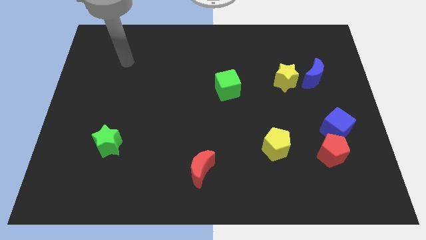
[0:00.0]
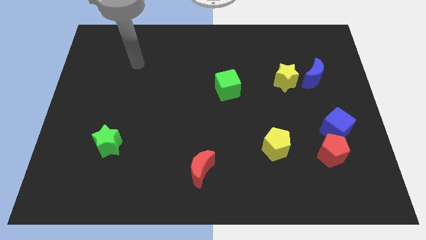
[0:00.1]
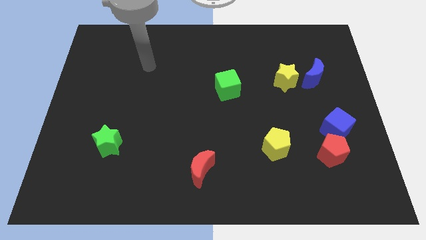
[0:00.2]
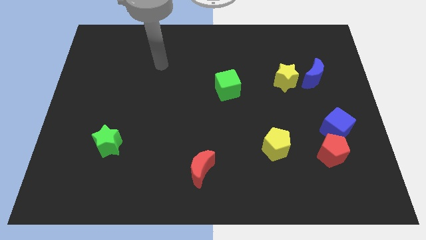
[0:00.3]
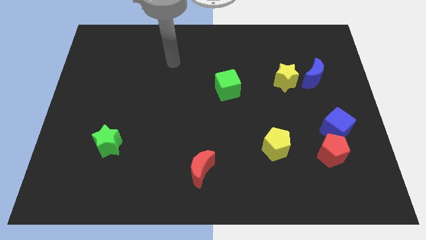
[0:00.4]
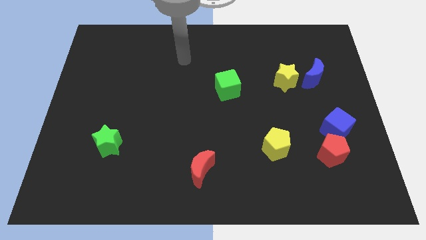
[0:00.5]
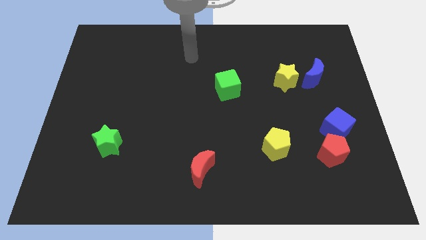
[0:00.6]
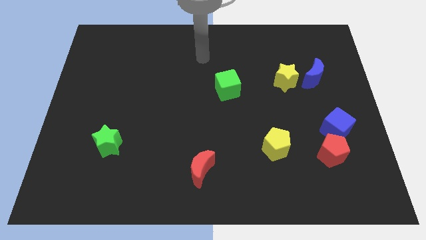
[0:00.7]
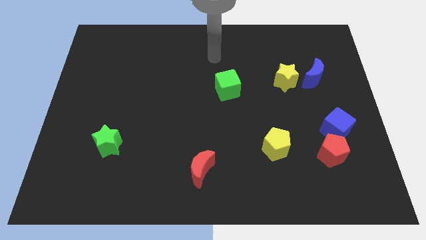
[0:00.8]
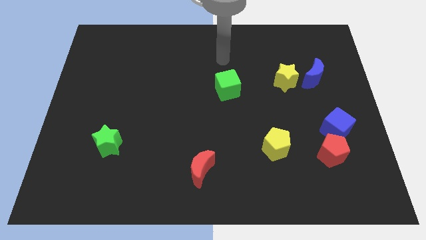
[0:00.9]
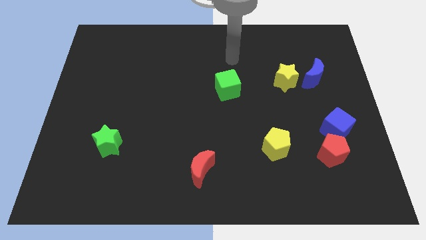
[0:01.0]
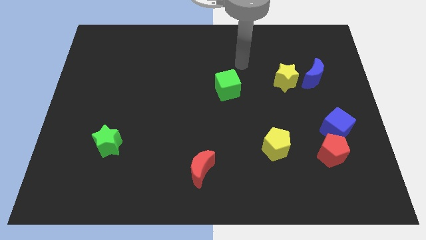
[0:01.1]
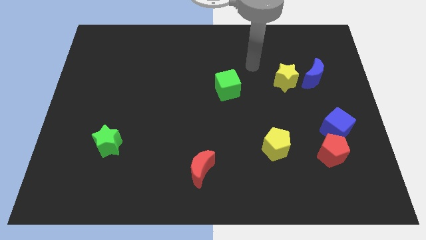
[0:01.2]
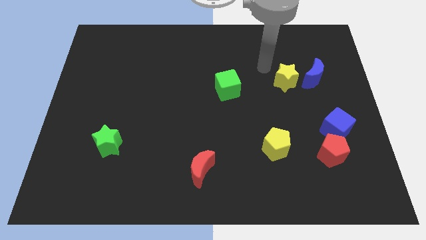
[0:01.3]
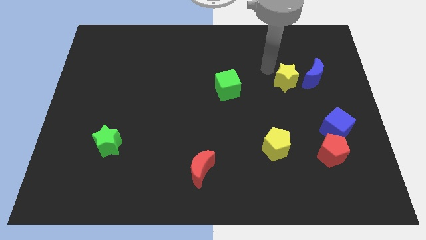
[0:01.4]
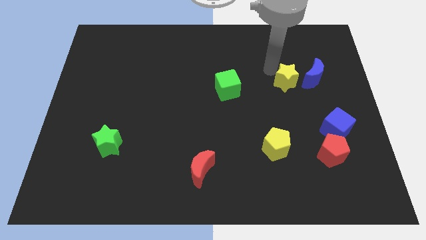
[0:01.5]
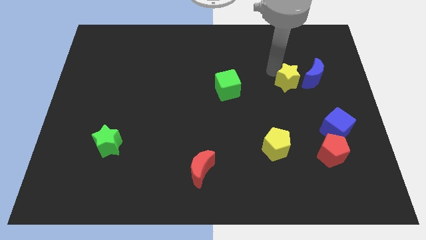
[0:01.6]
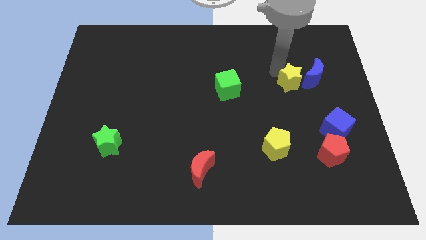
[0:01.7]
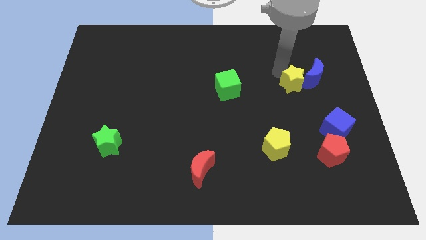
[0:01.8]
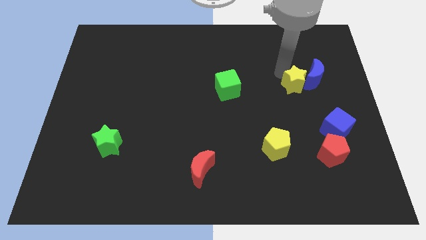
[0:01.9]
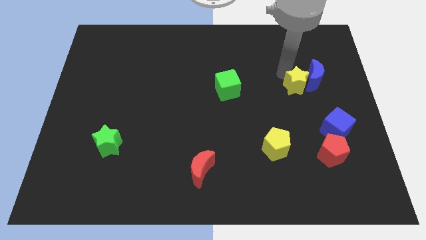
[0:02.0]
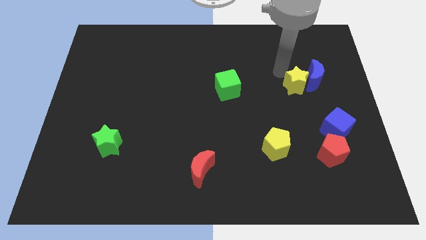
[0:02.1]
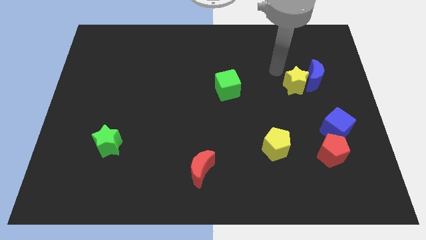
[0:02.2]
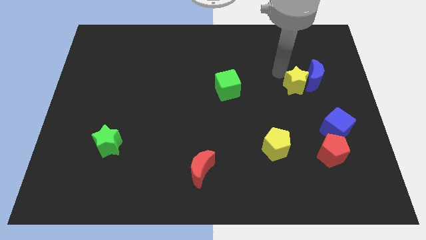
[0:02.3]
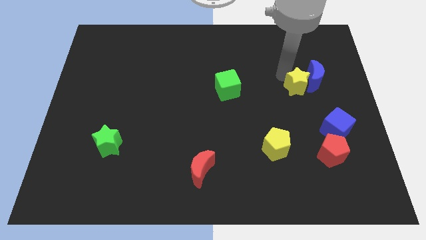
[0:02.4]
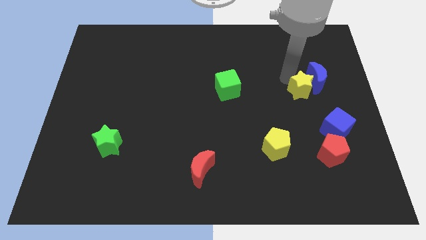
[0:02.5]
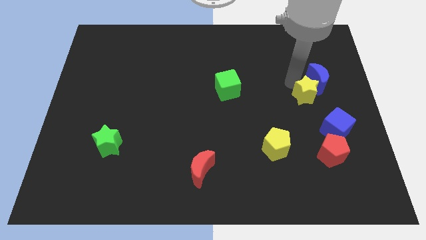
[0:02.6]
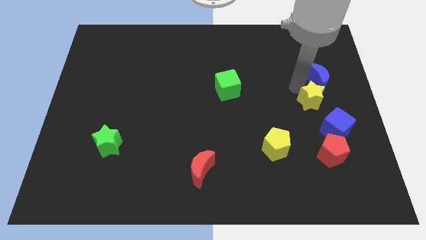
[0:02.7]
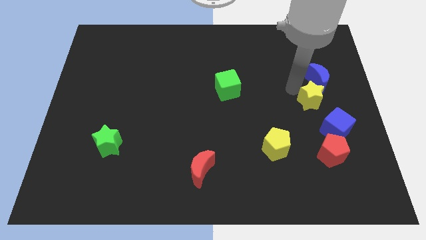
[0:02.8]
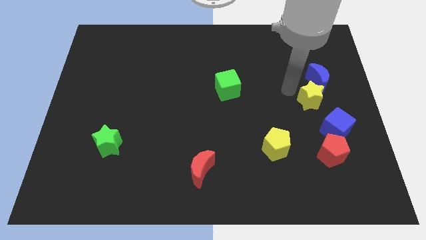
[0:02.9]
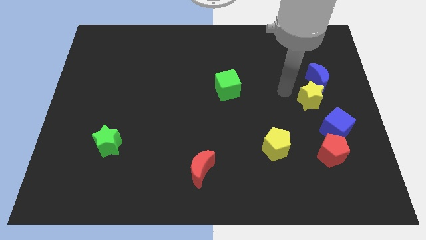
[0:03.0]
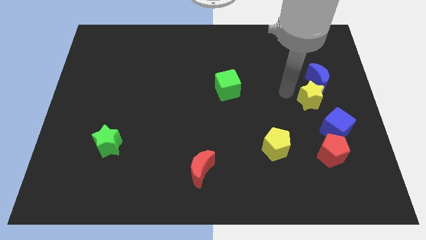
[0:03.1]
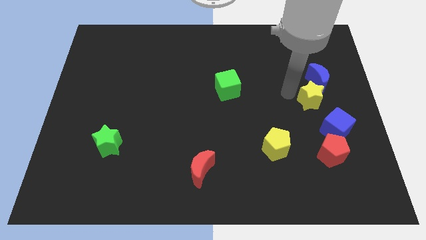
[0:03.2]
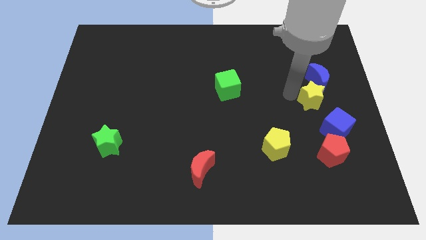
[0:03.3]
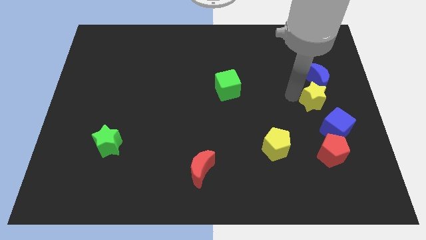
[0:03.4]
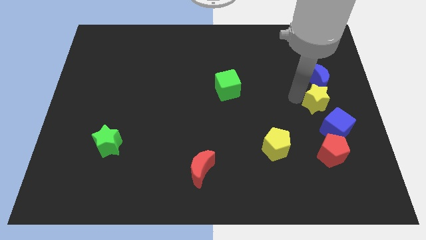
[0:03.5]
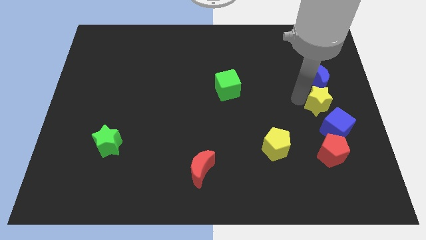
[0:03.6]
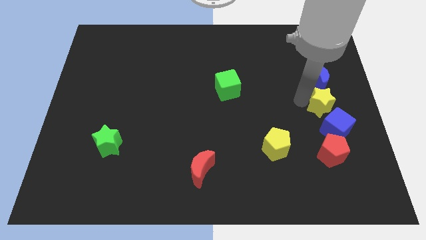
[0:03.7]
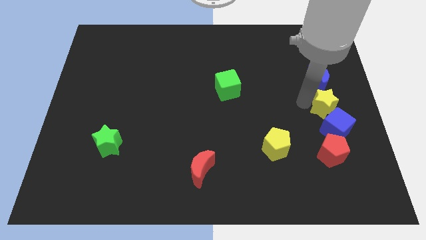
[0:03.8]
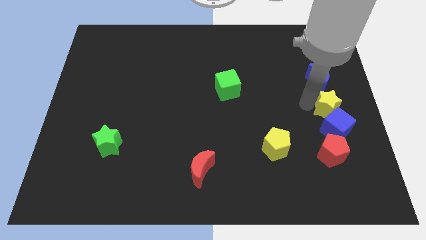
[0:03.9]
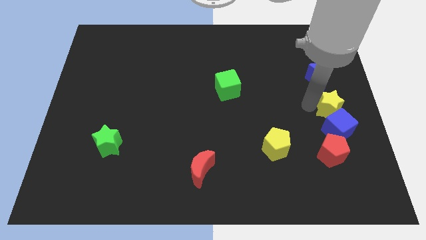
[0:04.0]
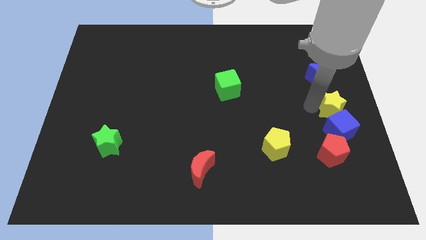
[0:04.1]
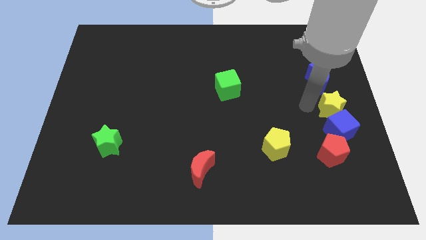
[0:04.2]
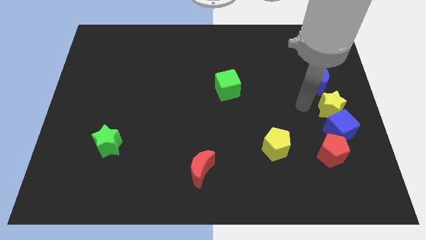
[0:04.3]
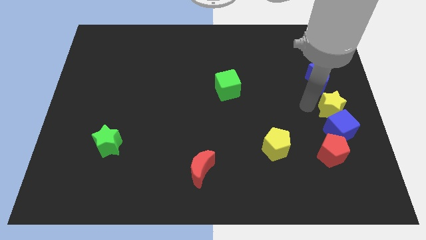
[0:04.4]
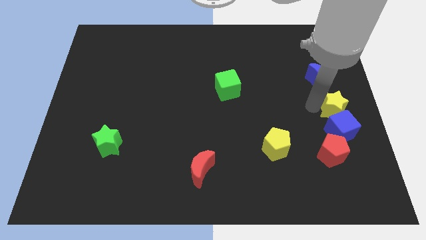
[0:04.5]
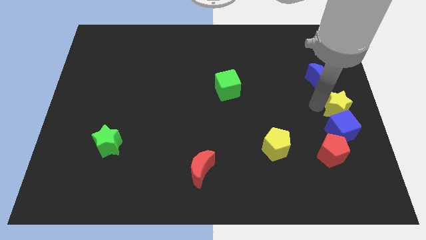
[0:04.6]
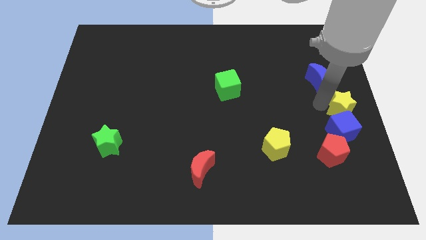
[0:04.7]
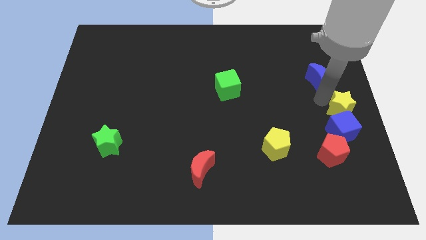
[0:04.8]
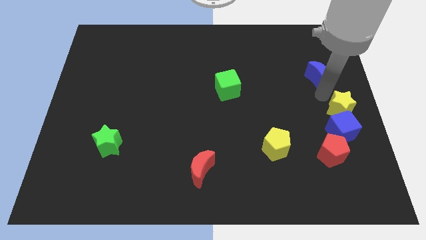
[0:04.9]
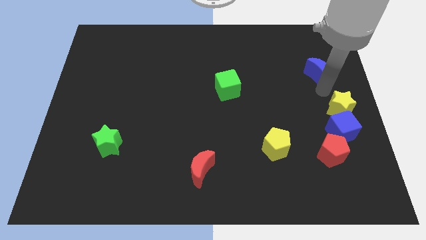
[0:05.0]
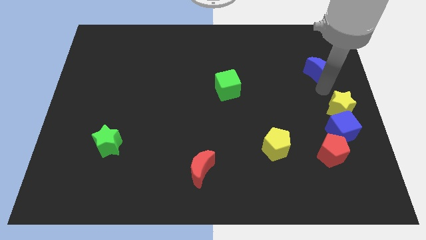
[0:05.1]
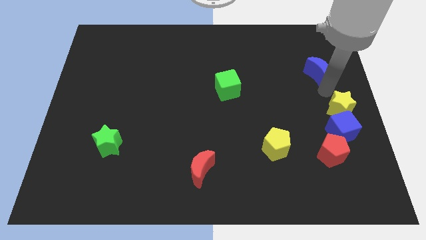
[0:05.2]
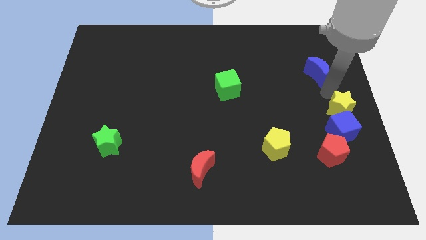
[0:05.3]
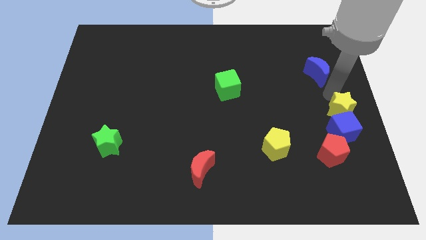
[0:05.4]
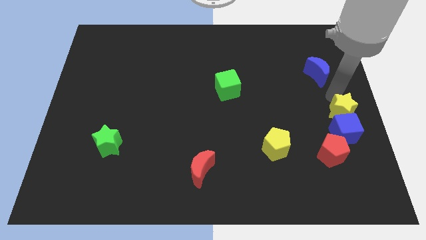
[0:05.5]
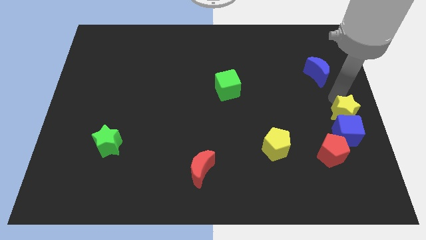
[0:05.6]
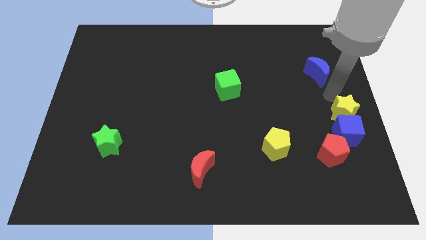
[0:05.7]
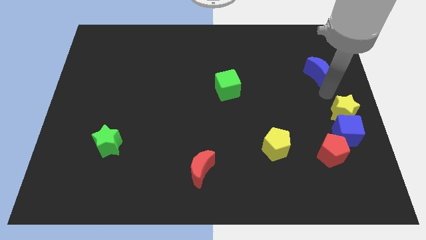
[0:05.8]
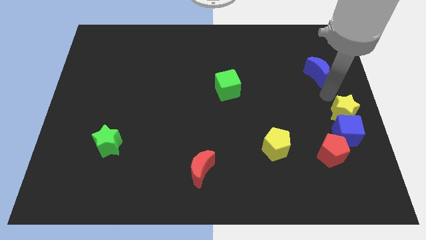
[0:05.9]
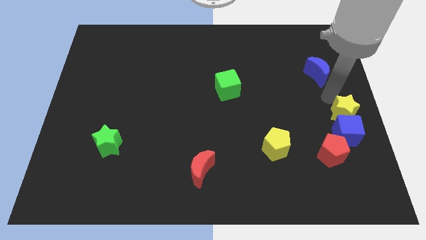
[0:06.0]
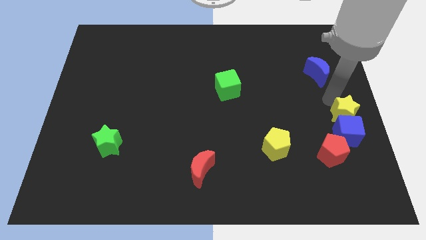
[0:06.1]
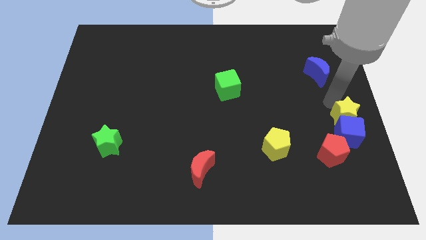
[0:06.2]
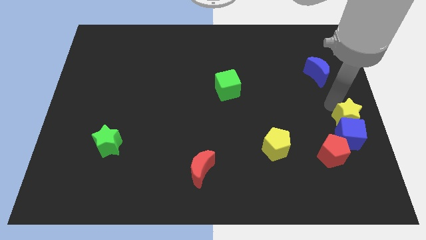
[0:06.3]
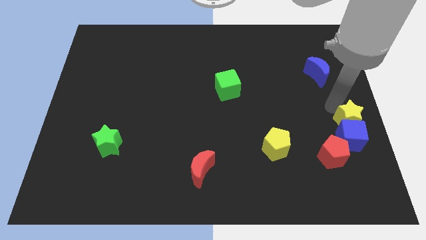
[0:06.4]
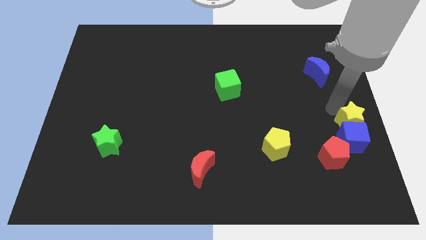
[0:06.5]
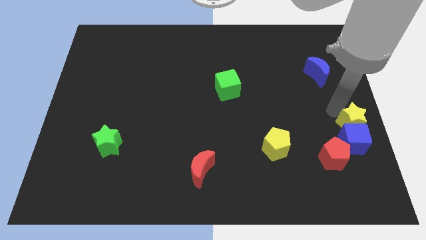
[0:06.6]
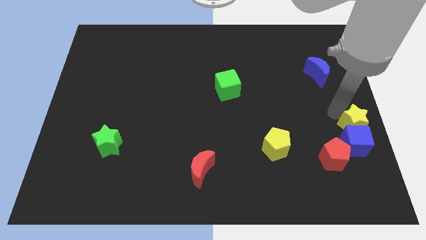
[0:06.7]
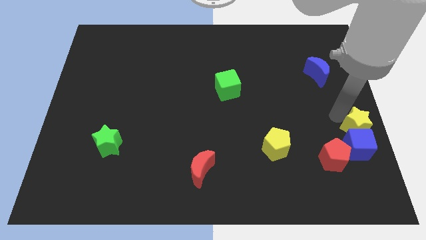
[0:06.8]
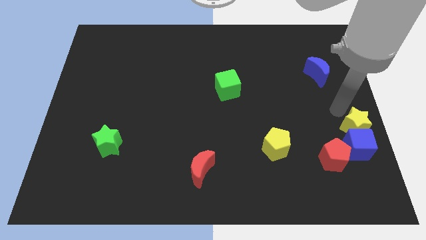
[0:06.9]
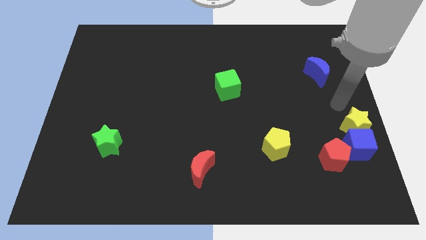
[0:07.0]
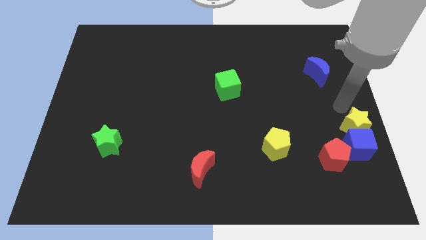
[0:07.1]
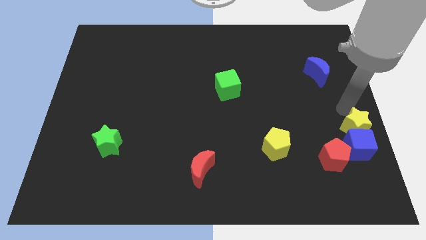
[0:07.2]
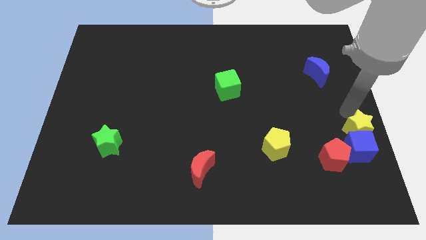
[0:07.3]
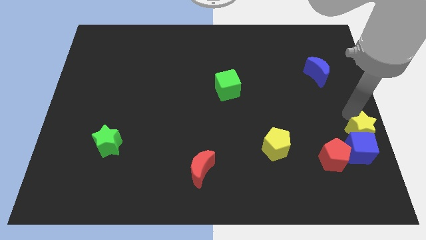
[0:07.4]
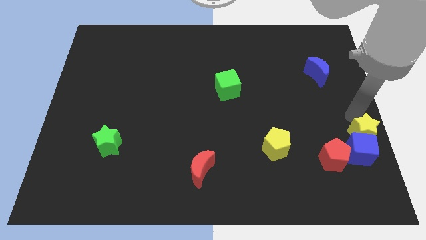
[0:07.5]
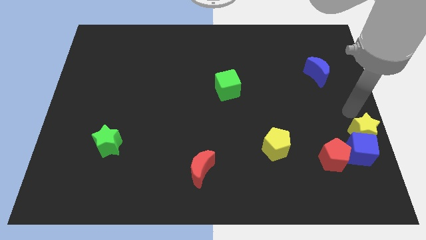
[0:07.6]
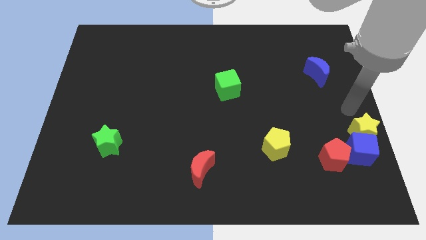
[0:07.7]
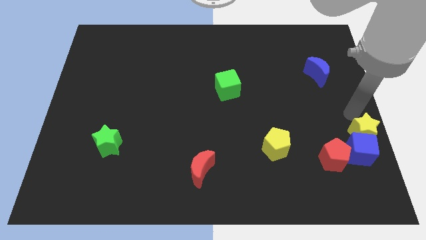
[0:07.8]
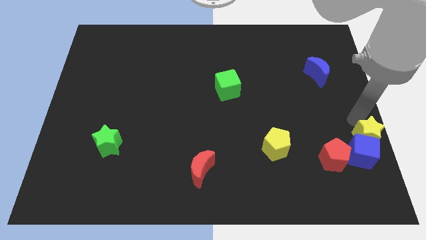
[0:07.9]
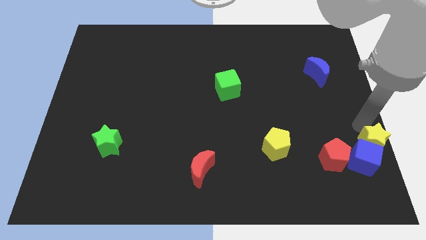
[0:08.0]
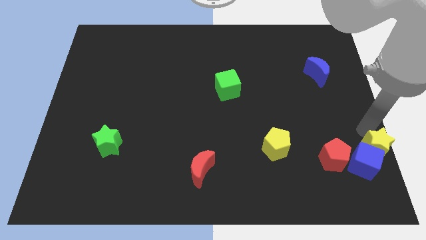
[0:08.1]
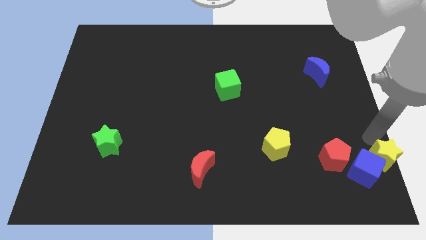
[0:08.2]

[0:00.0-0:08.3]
push the yellow star to the bottom right of the board
